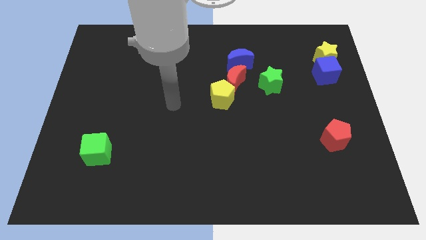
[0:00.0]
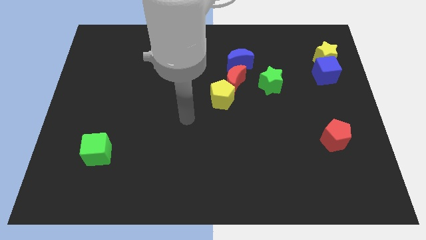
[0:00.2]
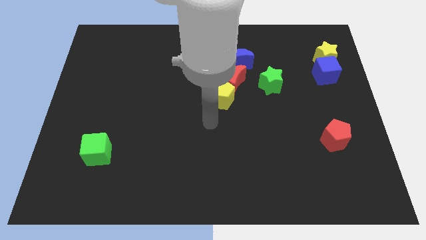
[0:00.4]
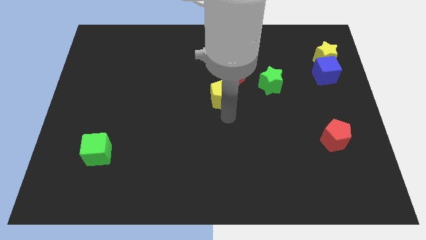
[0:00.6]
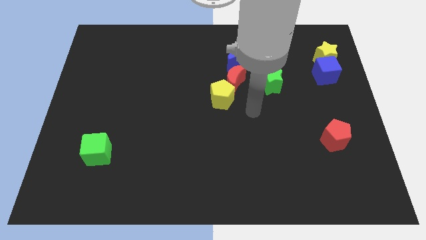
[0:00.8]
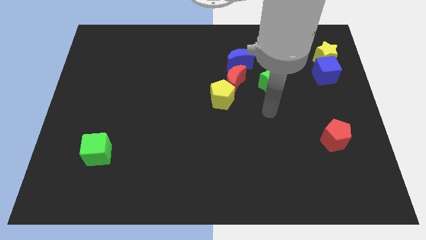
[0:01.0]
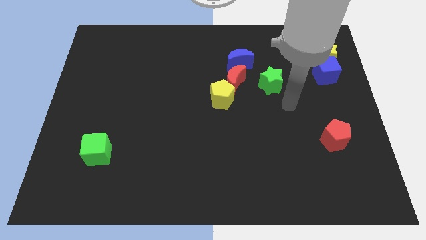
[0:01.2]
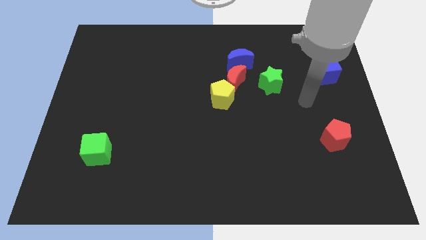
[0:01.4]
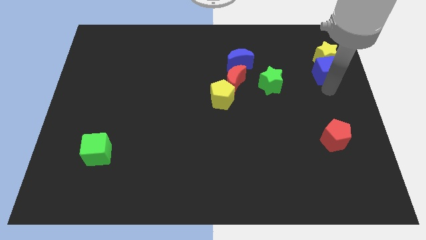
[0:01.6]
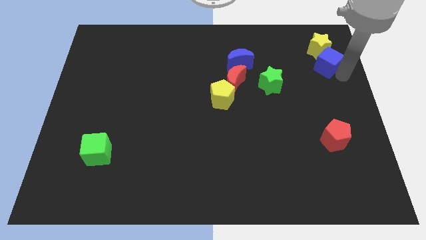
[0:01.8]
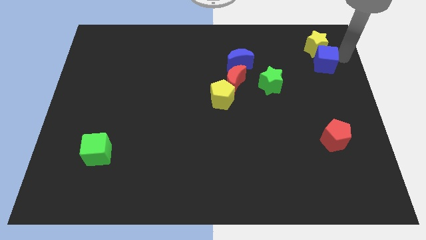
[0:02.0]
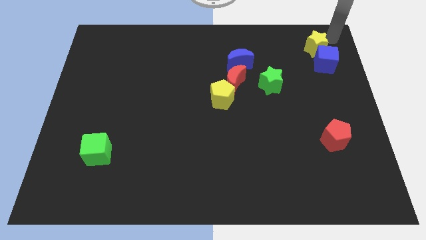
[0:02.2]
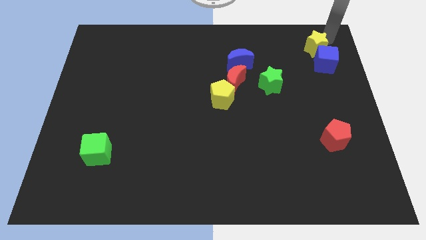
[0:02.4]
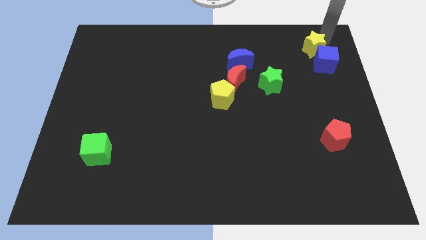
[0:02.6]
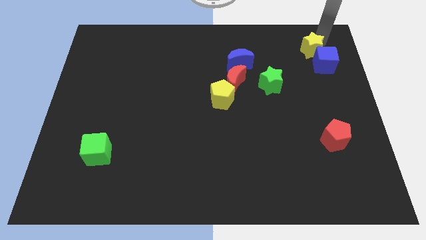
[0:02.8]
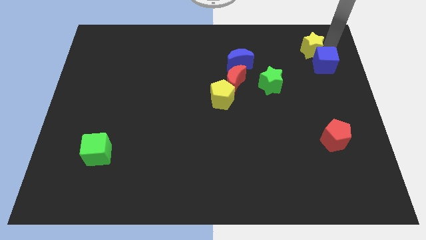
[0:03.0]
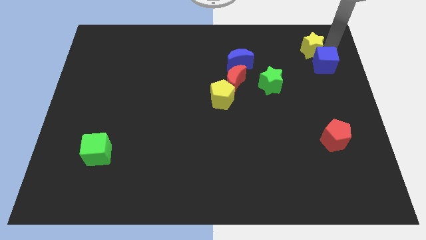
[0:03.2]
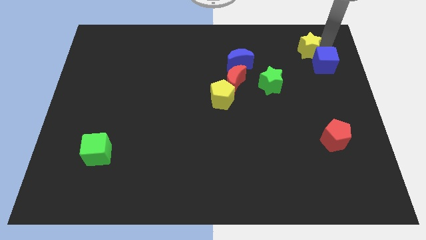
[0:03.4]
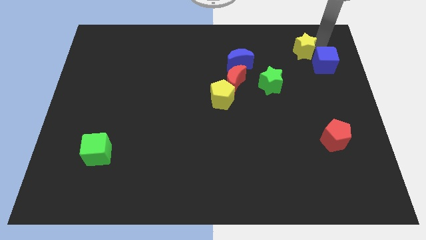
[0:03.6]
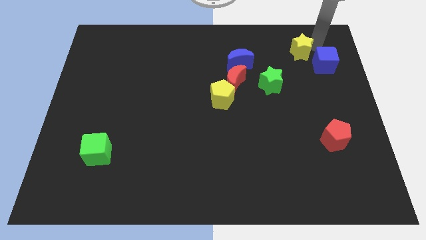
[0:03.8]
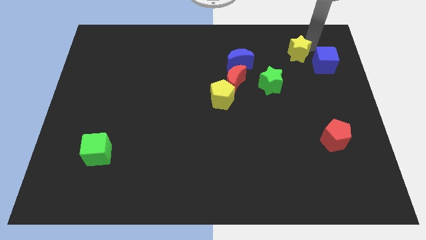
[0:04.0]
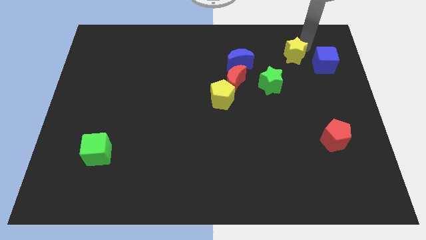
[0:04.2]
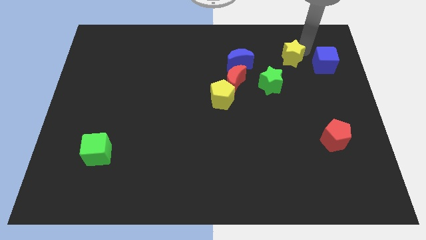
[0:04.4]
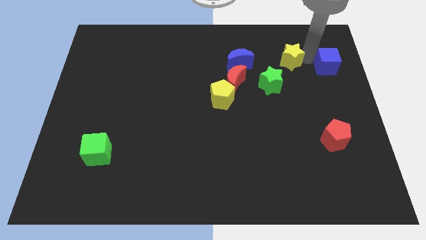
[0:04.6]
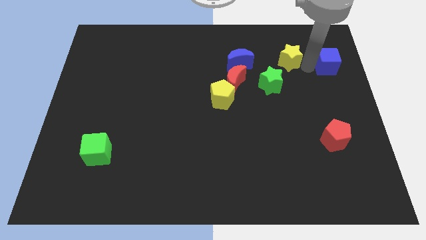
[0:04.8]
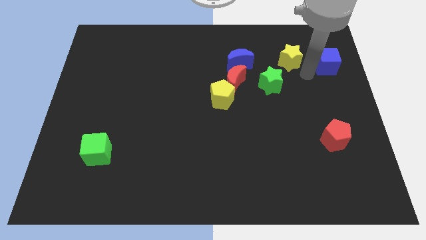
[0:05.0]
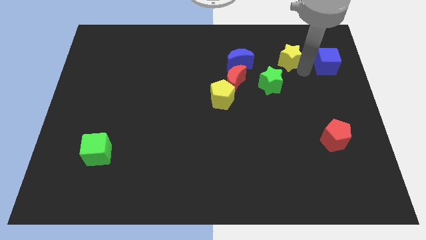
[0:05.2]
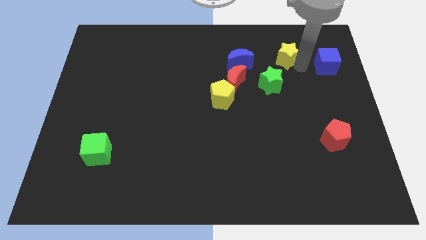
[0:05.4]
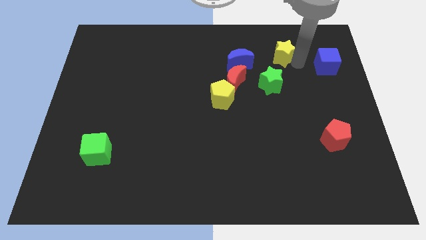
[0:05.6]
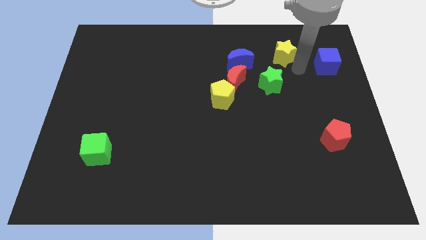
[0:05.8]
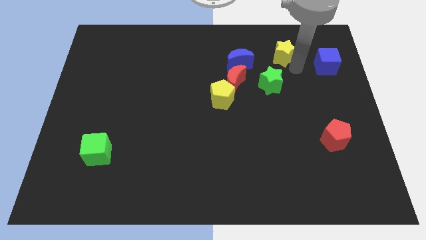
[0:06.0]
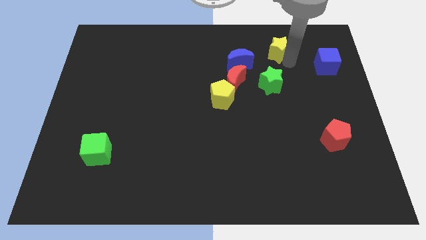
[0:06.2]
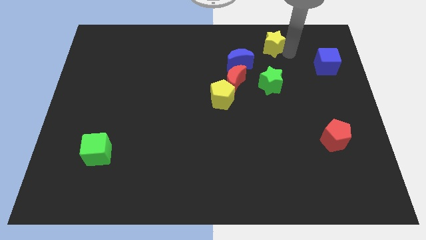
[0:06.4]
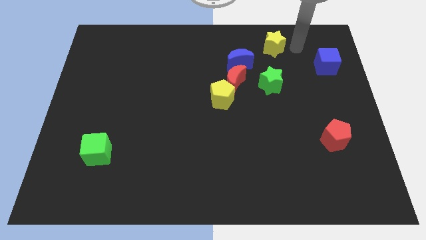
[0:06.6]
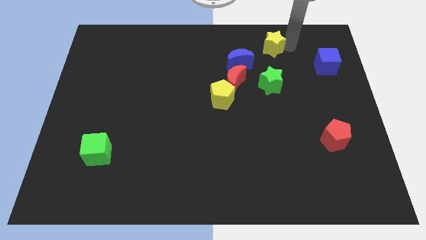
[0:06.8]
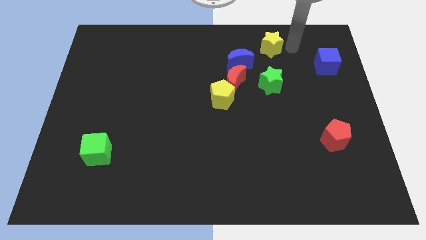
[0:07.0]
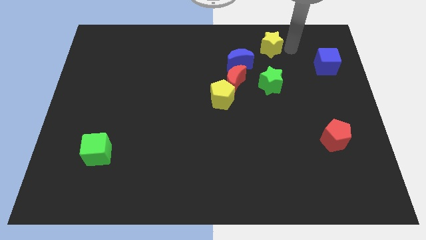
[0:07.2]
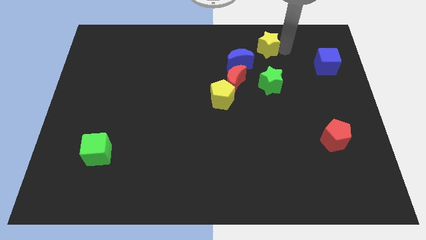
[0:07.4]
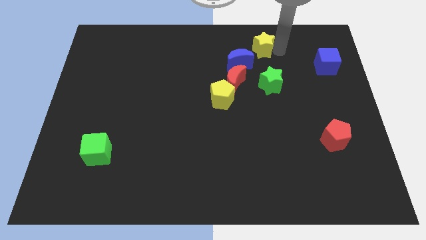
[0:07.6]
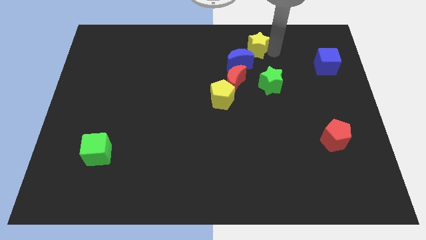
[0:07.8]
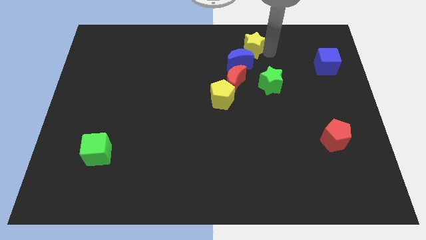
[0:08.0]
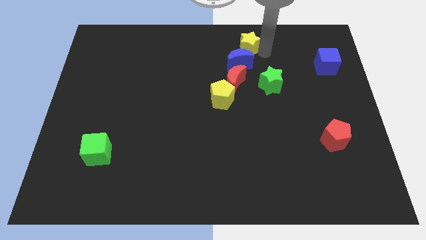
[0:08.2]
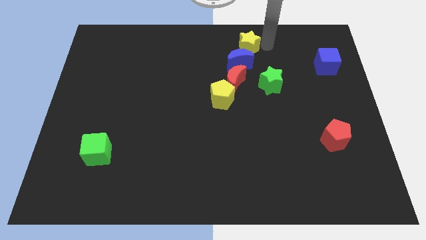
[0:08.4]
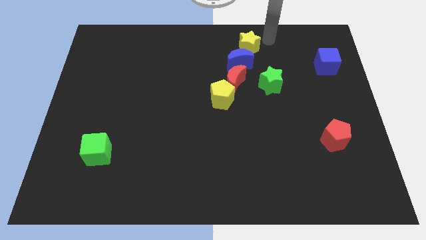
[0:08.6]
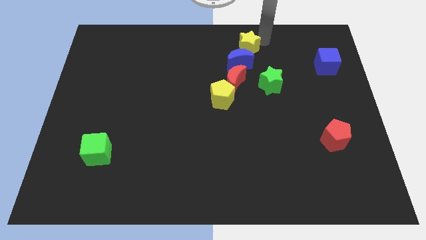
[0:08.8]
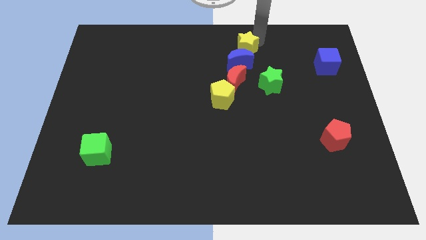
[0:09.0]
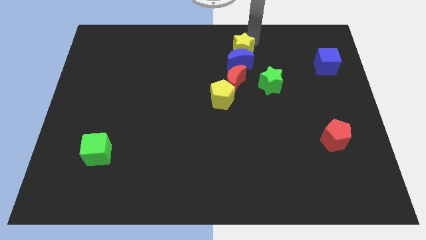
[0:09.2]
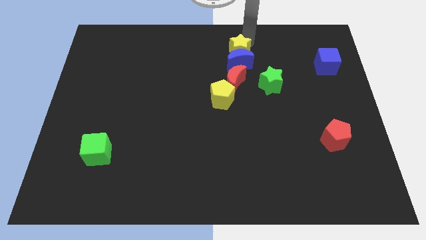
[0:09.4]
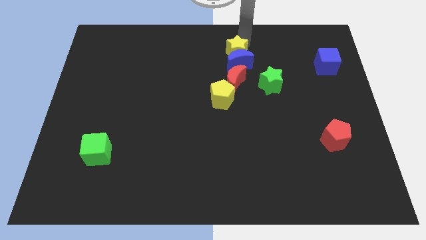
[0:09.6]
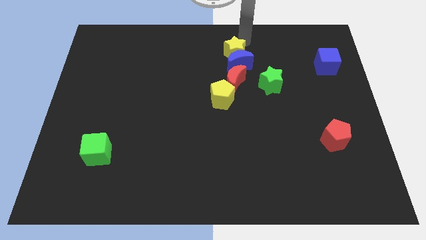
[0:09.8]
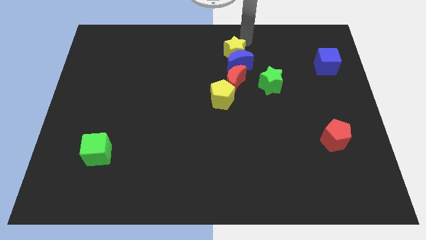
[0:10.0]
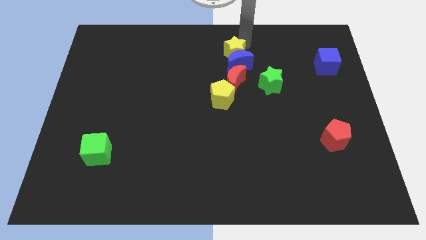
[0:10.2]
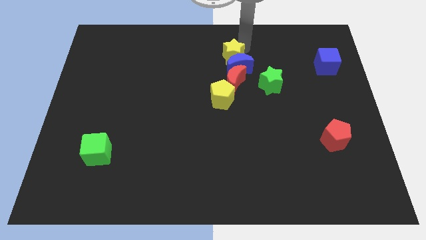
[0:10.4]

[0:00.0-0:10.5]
move the yellow star to the top of the yellow pentagon

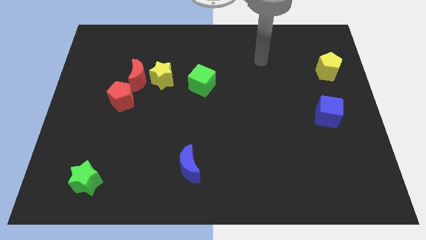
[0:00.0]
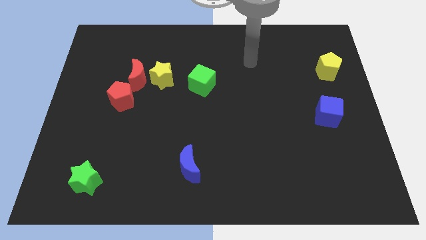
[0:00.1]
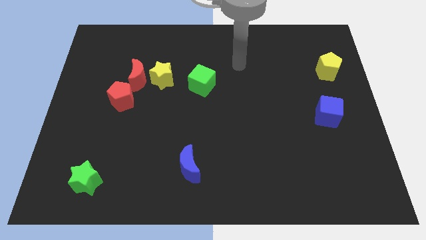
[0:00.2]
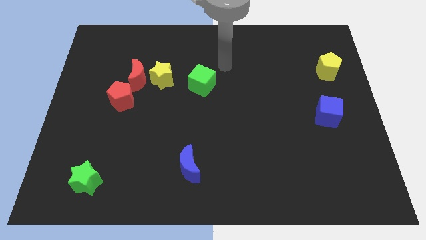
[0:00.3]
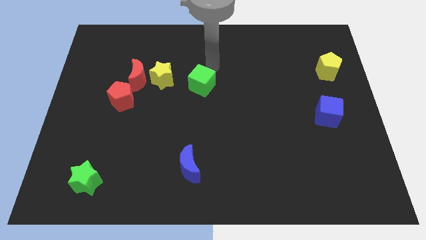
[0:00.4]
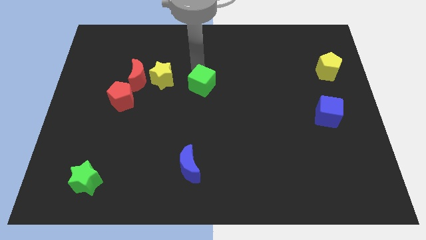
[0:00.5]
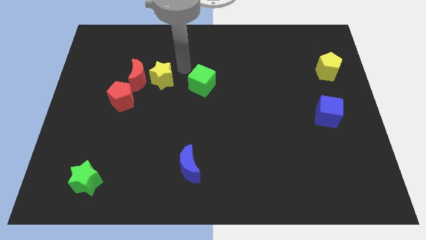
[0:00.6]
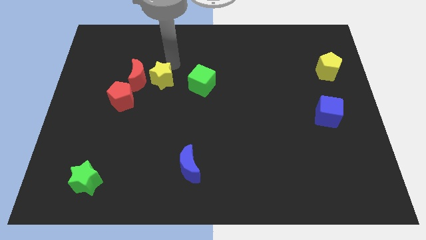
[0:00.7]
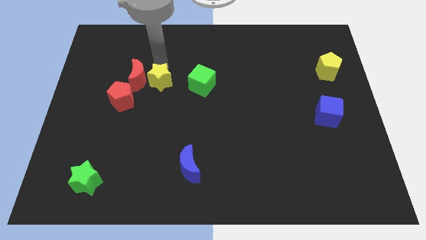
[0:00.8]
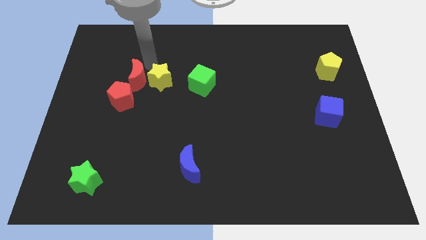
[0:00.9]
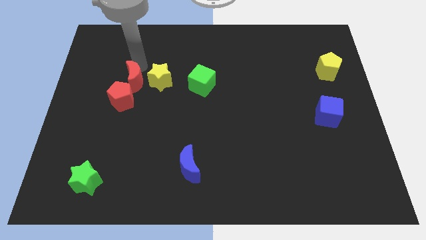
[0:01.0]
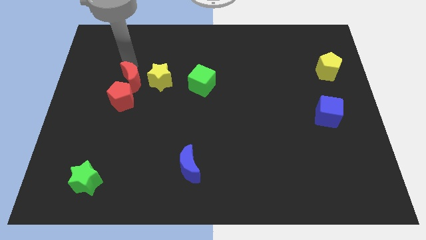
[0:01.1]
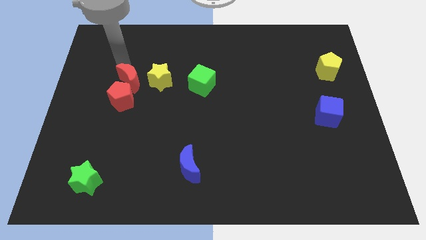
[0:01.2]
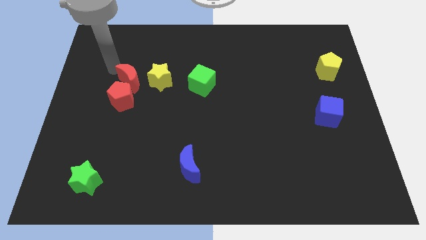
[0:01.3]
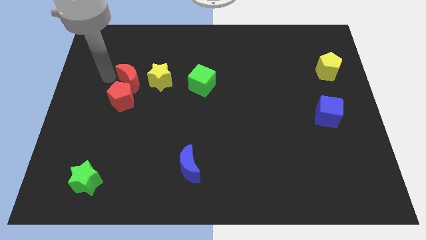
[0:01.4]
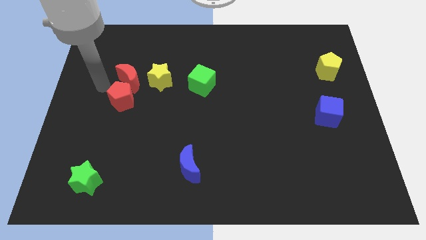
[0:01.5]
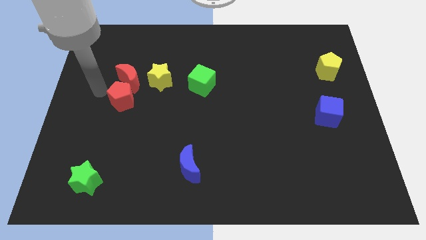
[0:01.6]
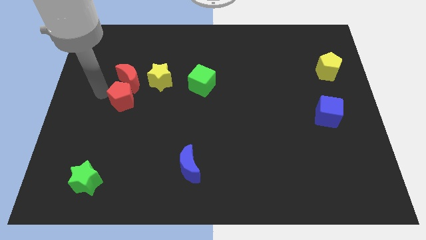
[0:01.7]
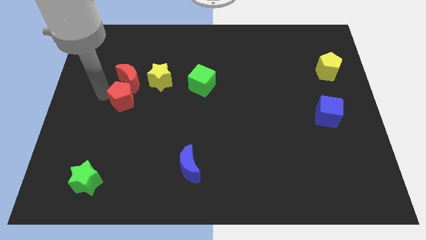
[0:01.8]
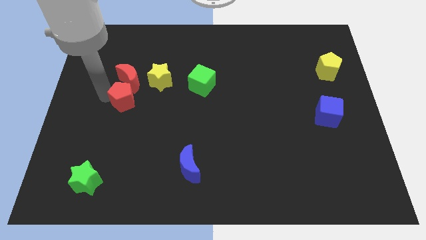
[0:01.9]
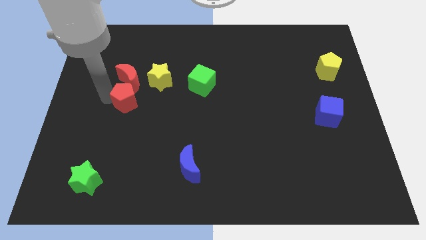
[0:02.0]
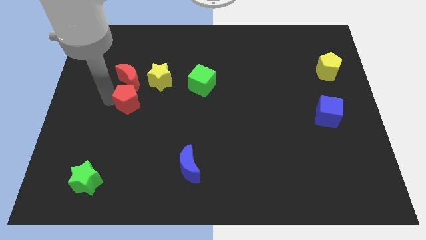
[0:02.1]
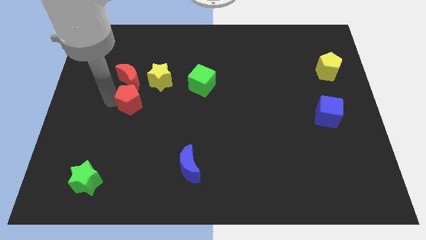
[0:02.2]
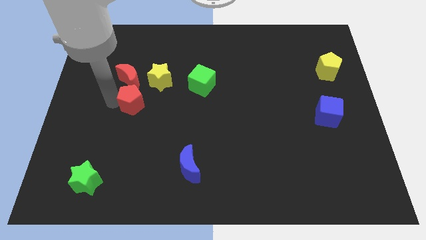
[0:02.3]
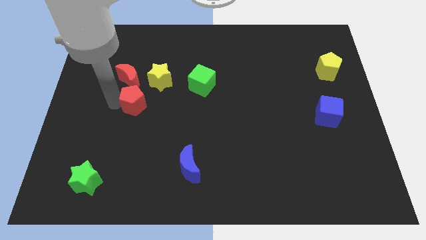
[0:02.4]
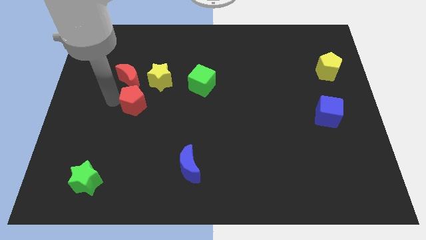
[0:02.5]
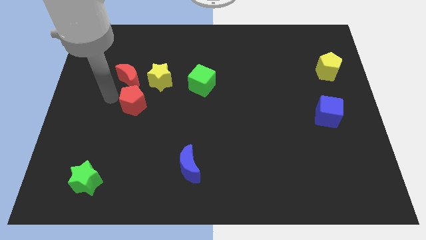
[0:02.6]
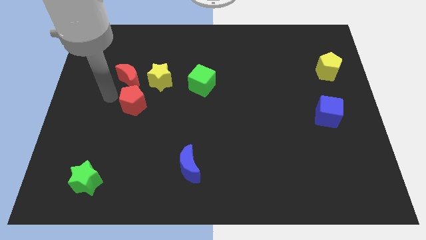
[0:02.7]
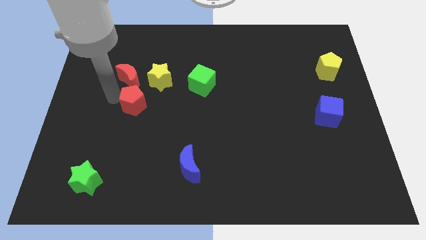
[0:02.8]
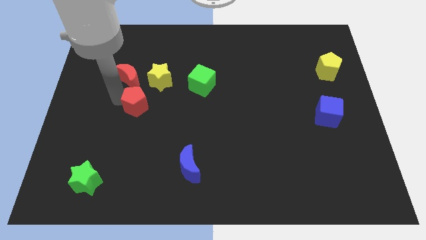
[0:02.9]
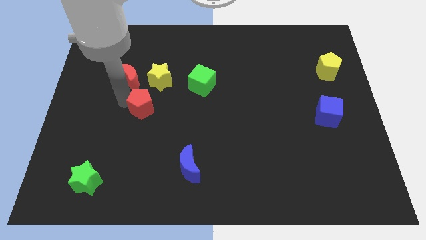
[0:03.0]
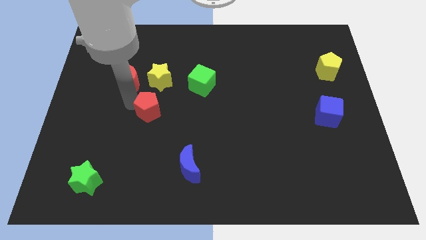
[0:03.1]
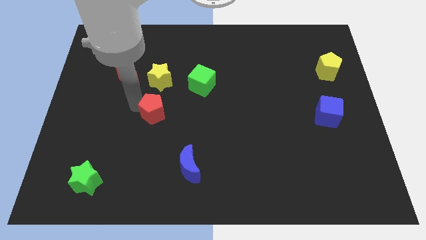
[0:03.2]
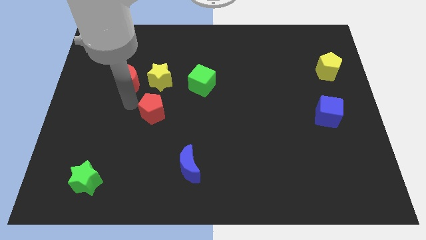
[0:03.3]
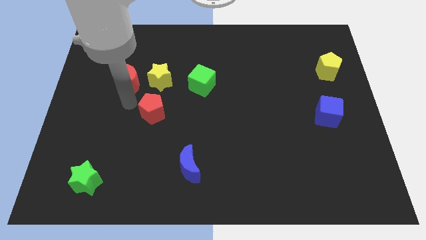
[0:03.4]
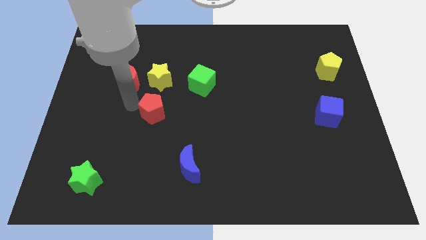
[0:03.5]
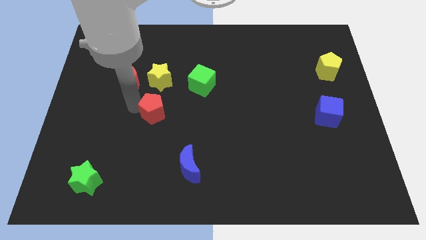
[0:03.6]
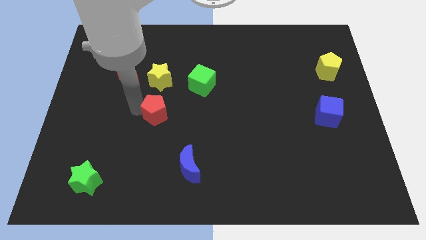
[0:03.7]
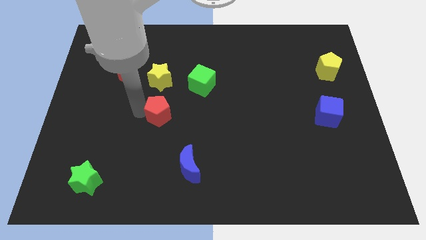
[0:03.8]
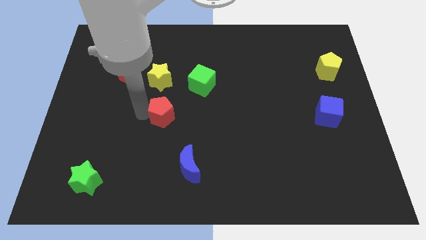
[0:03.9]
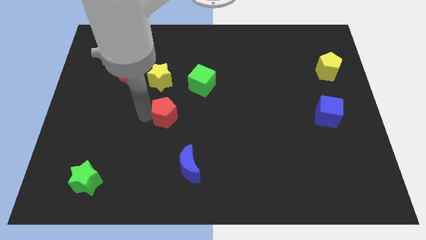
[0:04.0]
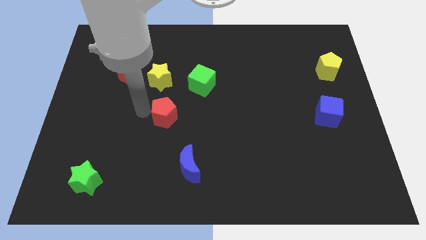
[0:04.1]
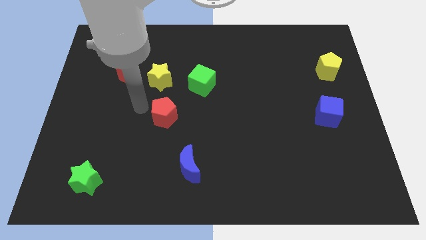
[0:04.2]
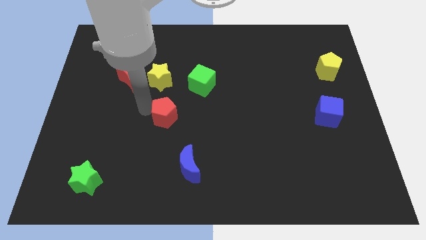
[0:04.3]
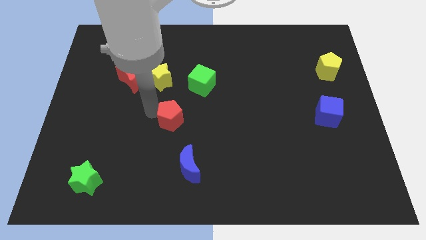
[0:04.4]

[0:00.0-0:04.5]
push the red pentagon above the blue moon
